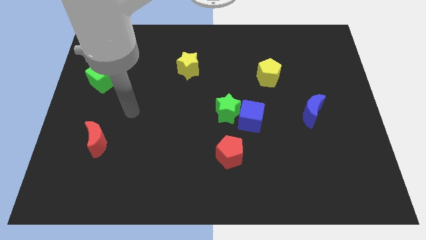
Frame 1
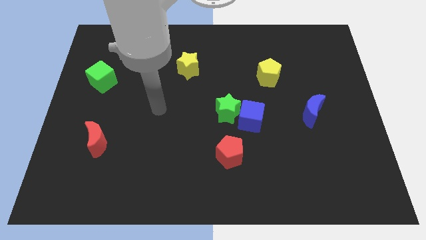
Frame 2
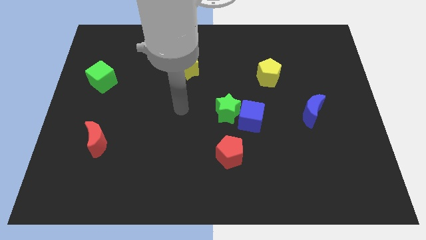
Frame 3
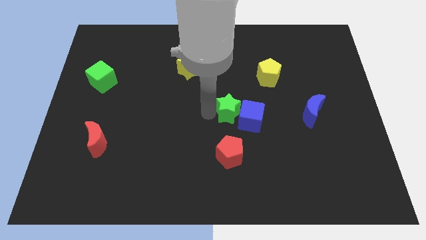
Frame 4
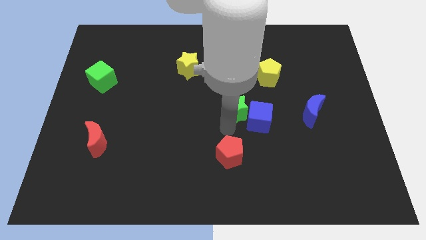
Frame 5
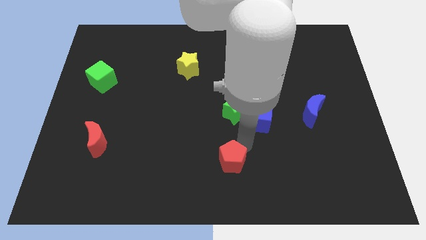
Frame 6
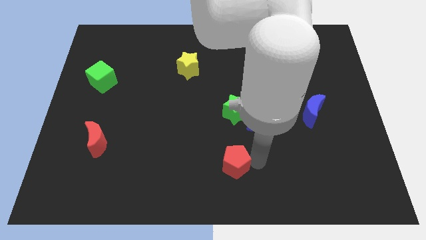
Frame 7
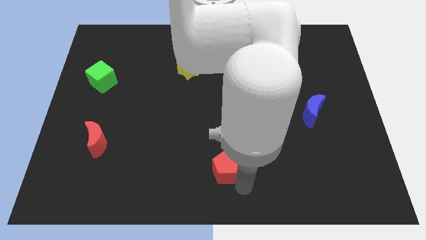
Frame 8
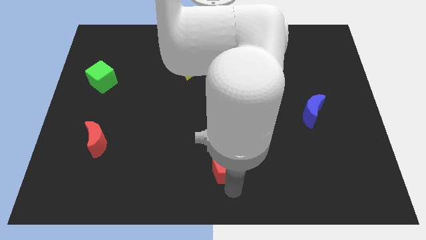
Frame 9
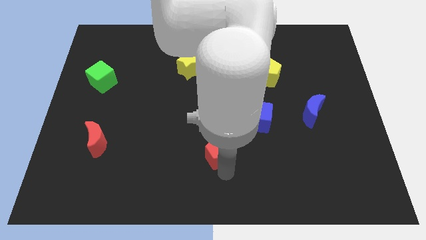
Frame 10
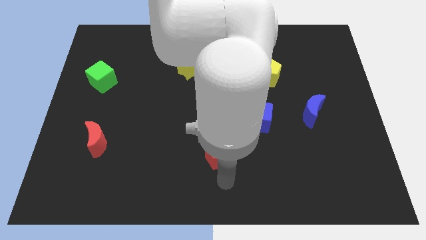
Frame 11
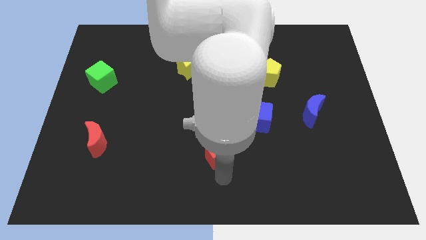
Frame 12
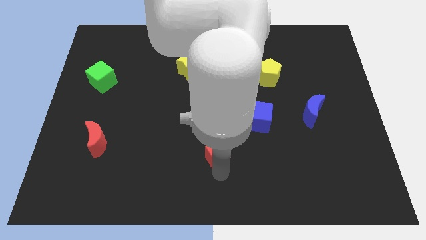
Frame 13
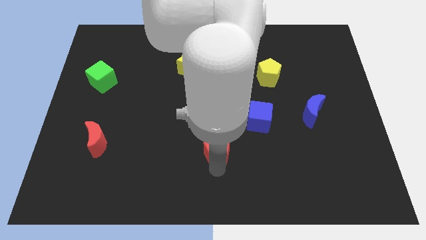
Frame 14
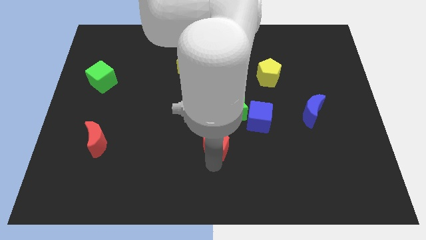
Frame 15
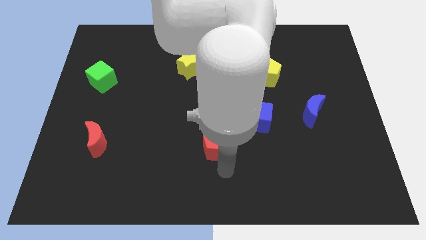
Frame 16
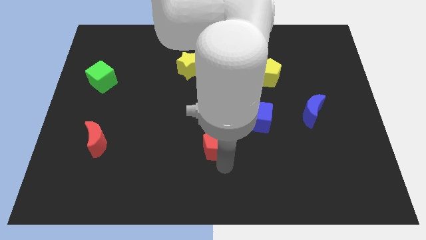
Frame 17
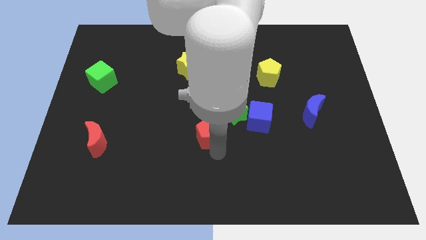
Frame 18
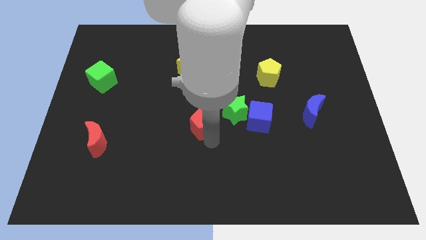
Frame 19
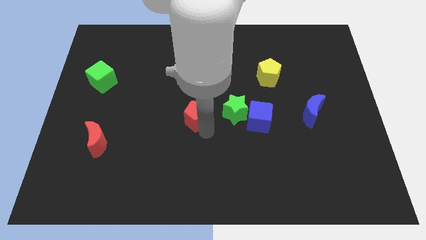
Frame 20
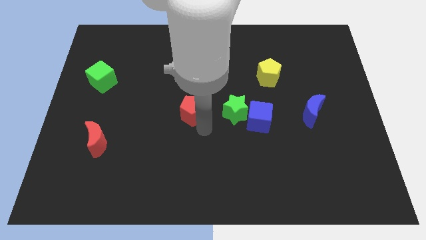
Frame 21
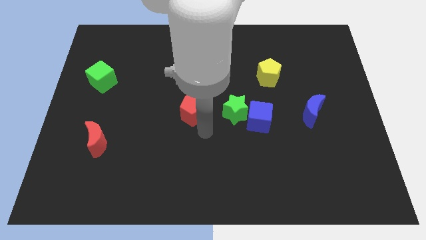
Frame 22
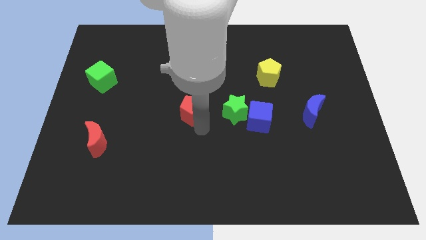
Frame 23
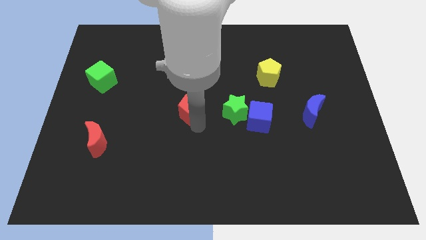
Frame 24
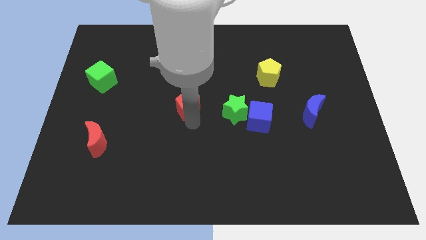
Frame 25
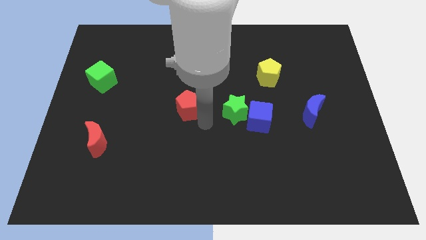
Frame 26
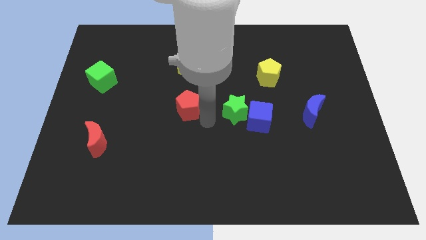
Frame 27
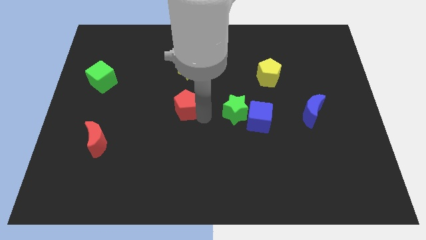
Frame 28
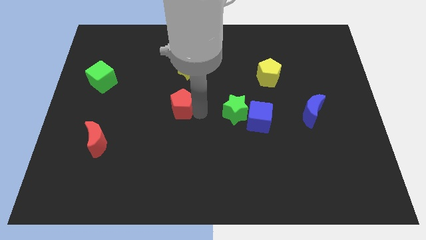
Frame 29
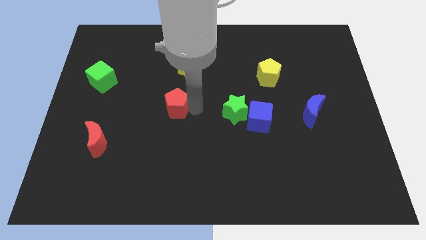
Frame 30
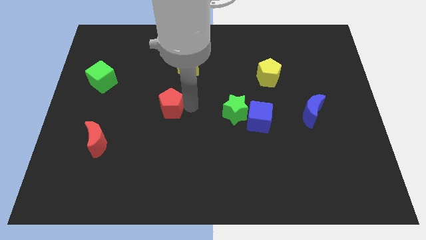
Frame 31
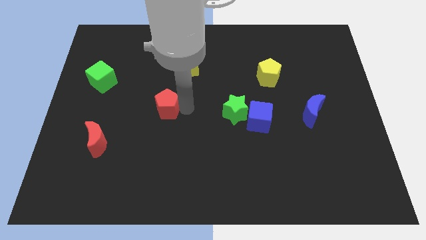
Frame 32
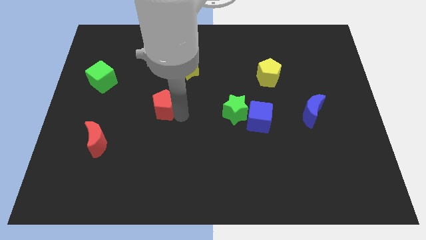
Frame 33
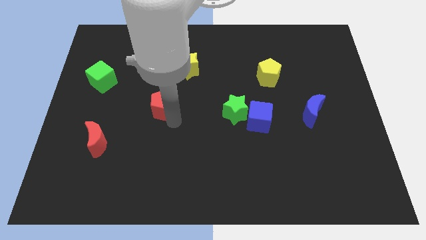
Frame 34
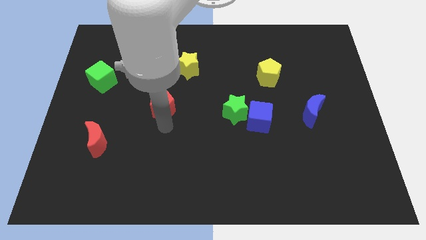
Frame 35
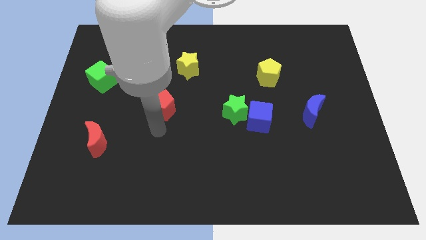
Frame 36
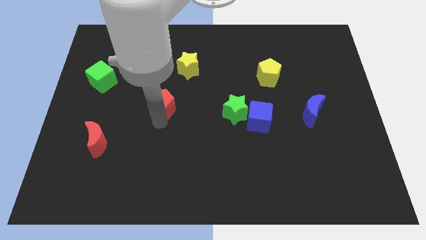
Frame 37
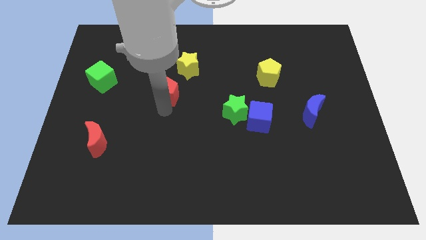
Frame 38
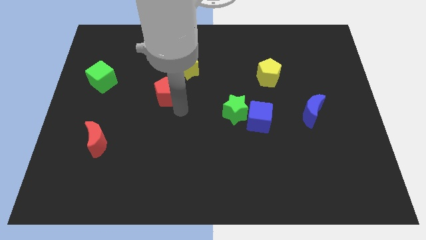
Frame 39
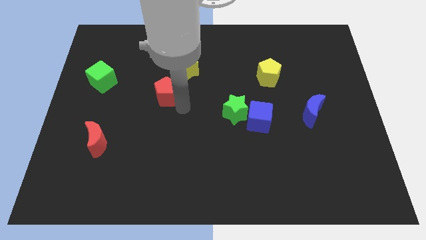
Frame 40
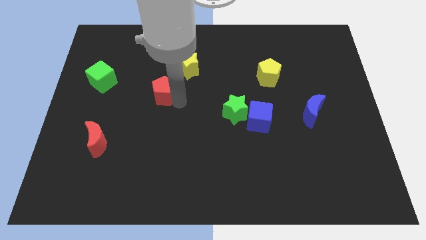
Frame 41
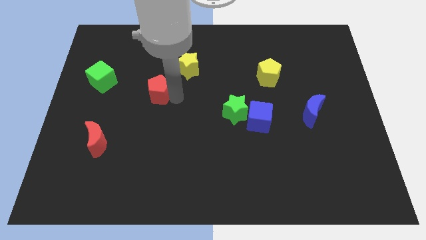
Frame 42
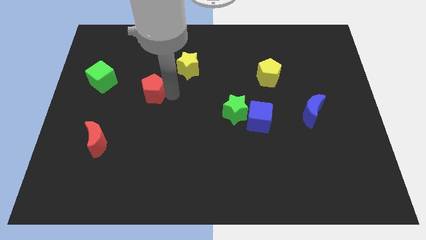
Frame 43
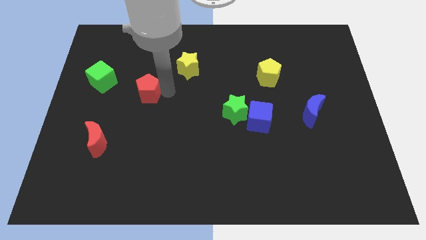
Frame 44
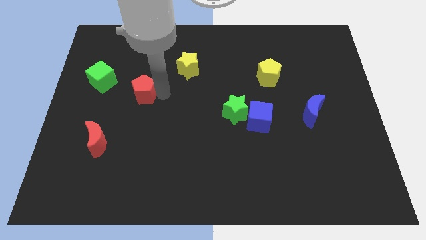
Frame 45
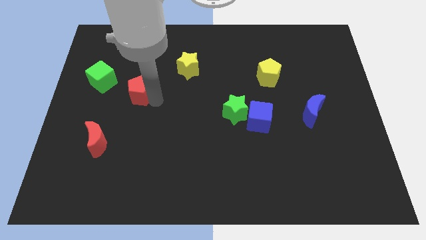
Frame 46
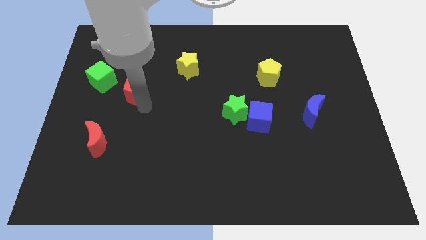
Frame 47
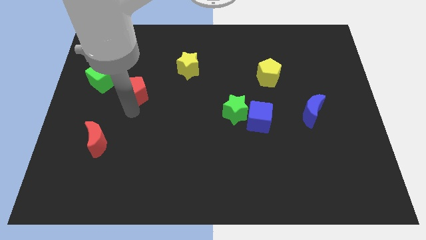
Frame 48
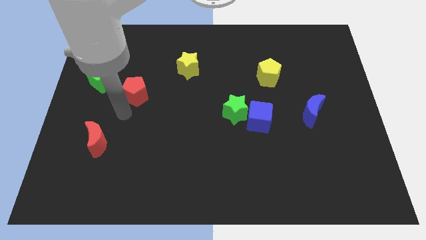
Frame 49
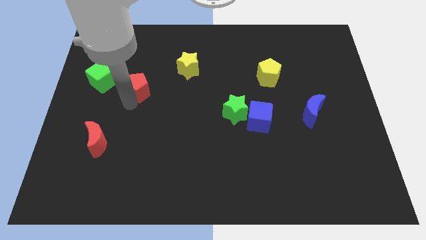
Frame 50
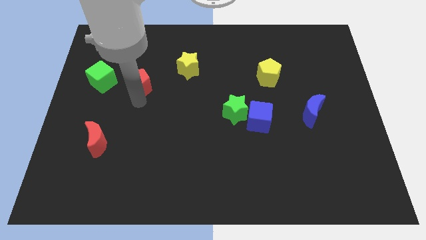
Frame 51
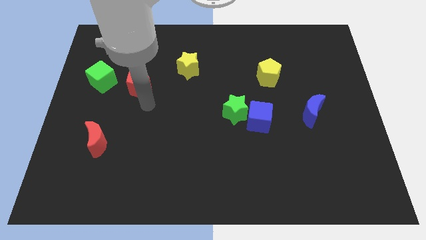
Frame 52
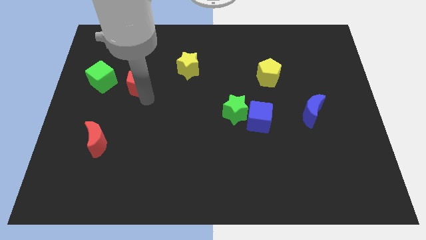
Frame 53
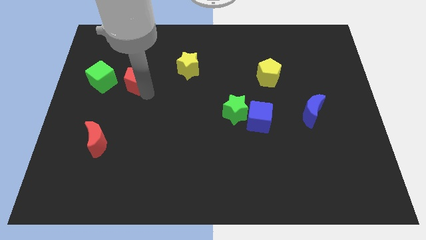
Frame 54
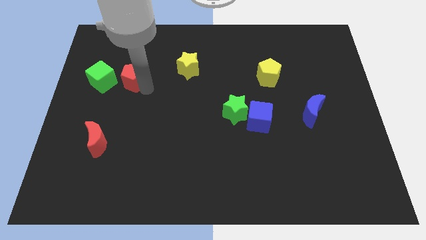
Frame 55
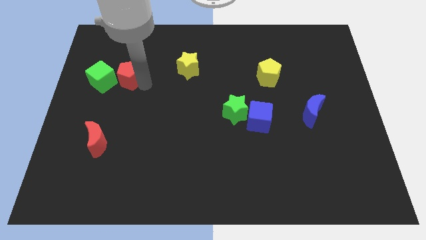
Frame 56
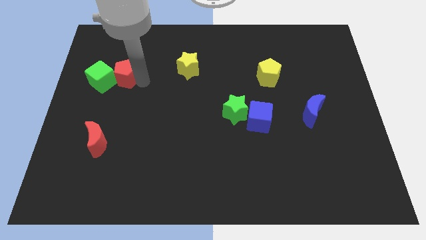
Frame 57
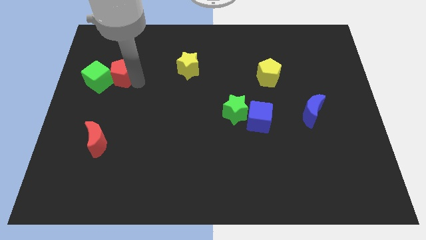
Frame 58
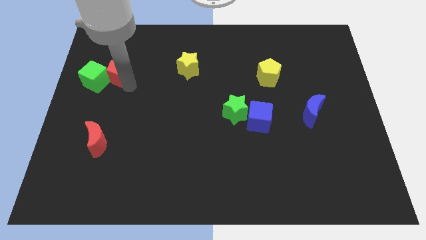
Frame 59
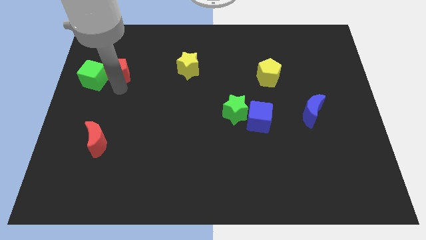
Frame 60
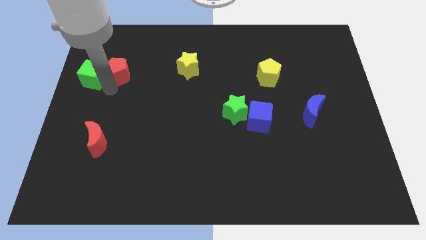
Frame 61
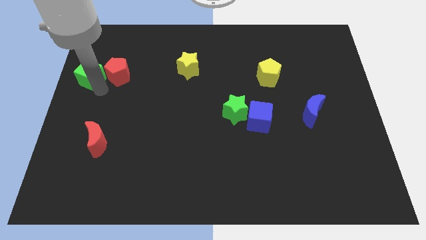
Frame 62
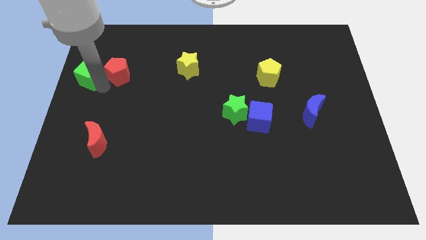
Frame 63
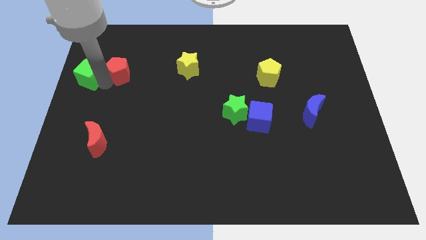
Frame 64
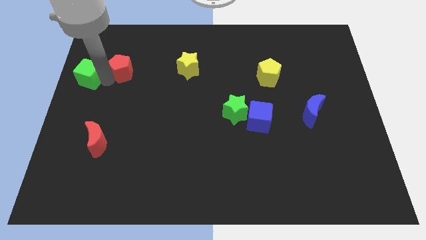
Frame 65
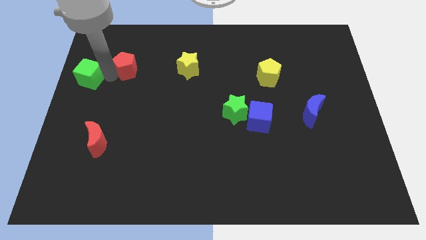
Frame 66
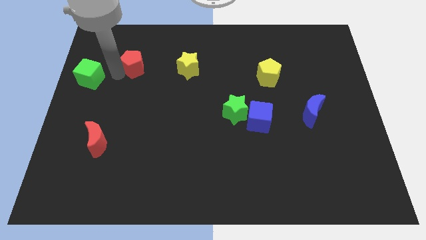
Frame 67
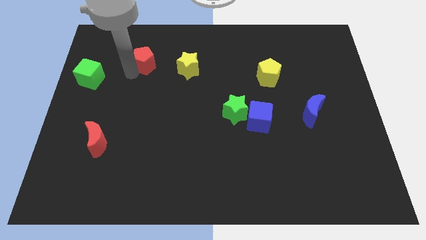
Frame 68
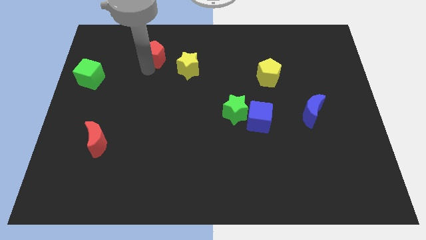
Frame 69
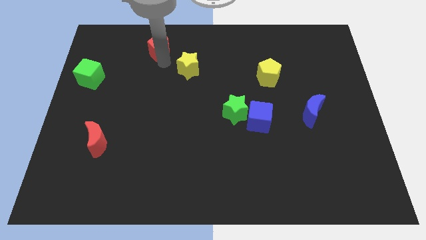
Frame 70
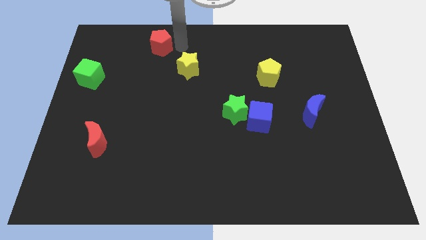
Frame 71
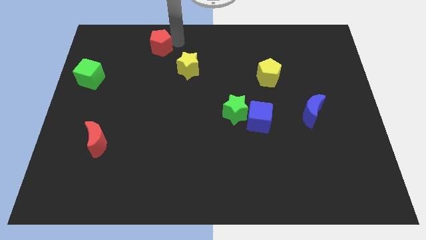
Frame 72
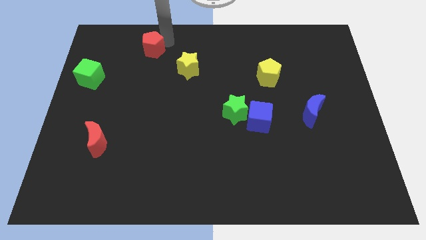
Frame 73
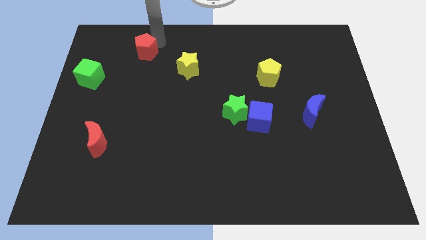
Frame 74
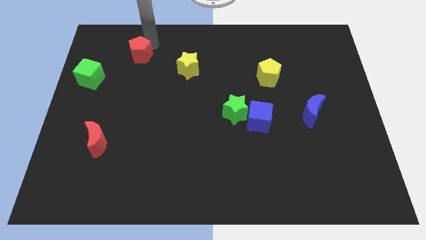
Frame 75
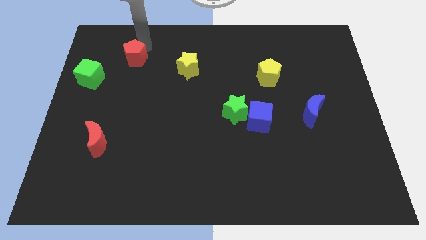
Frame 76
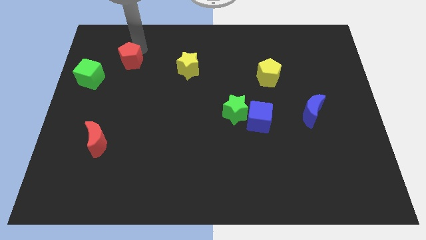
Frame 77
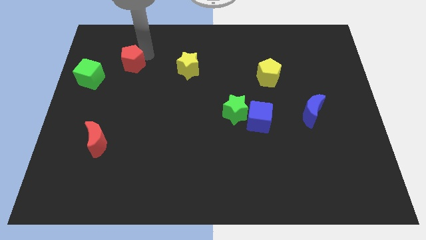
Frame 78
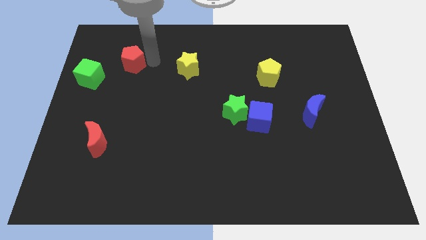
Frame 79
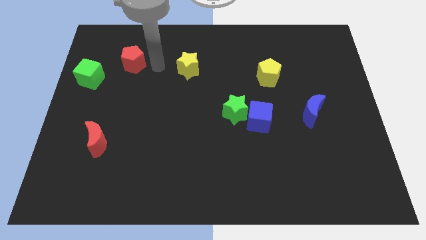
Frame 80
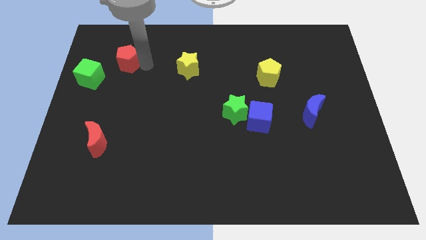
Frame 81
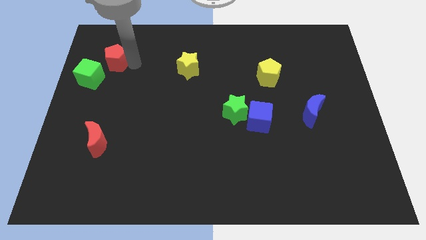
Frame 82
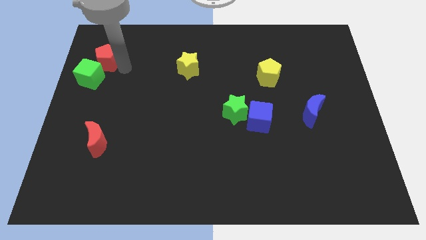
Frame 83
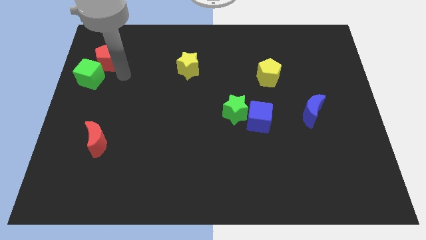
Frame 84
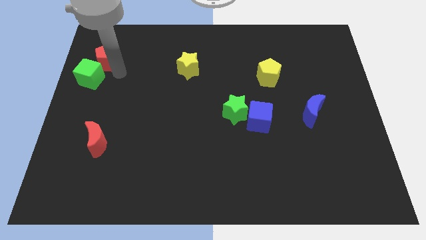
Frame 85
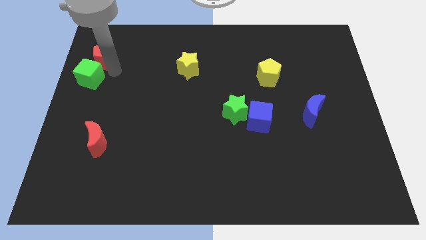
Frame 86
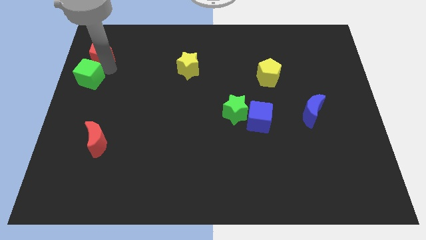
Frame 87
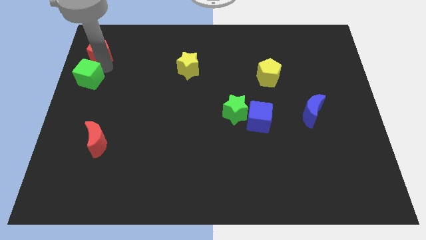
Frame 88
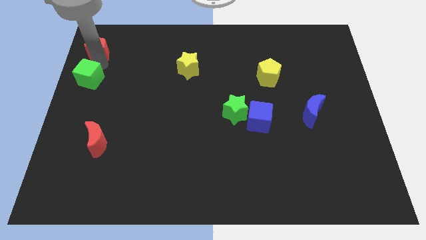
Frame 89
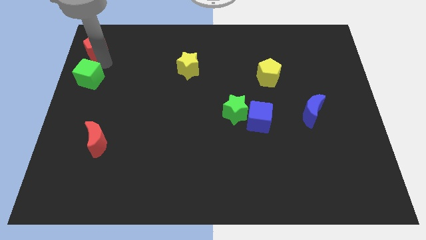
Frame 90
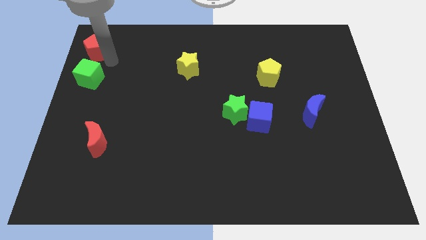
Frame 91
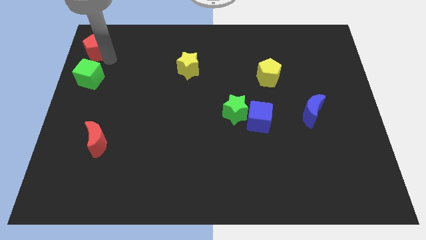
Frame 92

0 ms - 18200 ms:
slide the red pentagon to the top left of the board
